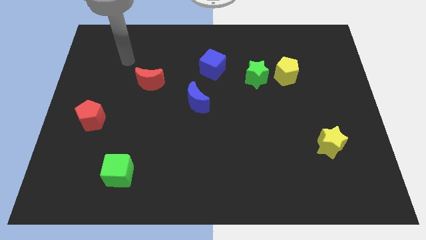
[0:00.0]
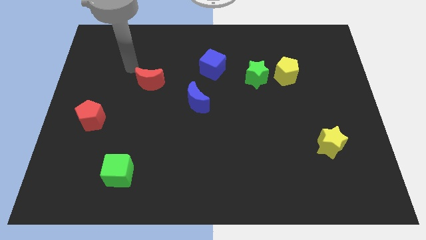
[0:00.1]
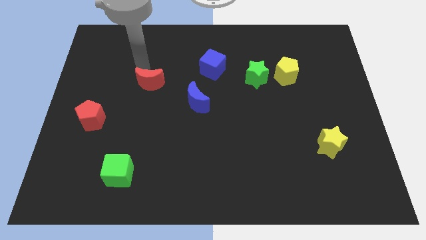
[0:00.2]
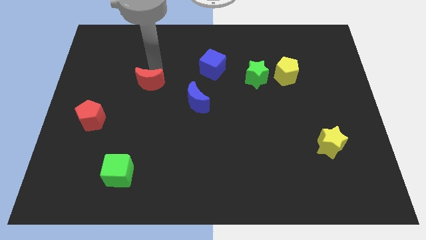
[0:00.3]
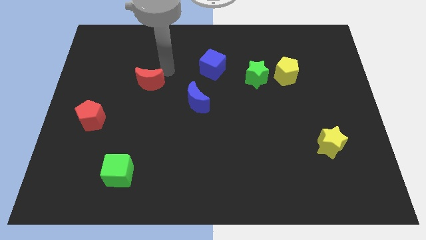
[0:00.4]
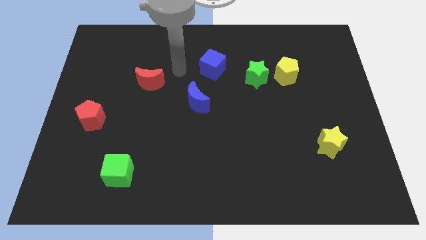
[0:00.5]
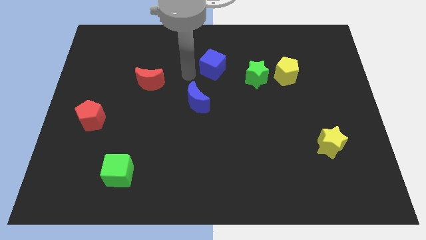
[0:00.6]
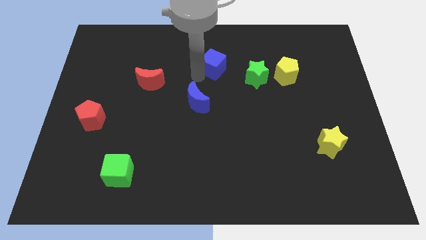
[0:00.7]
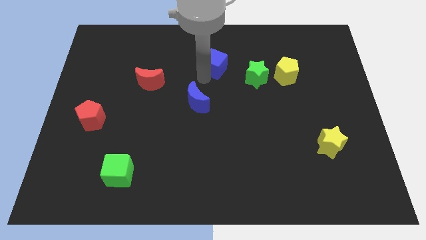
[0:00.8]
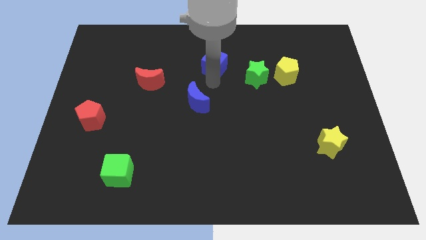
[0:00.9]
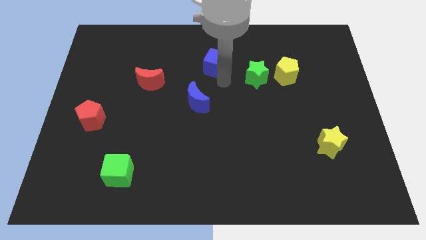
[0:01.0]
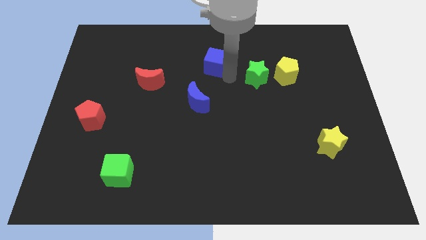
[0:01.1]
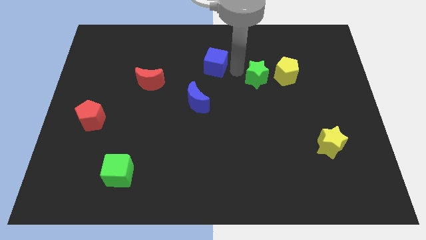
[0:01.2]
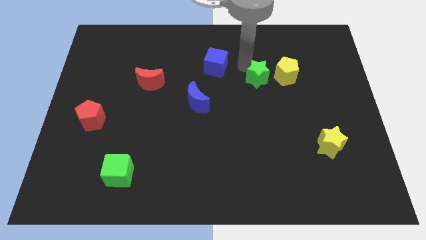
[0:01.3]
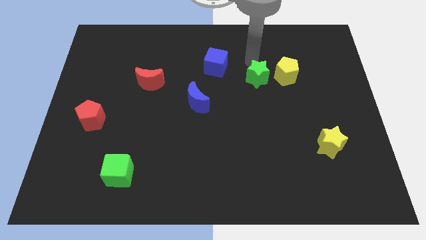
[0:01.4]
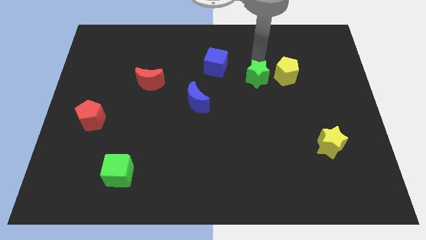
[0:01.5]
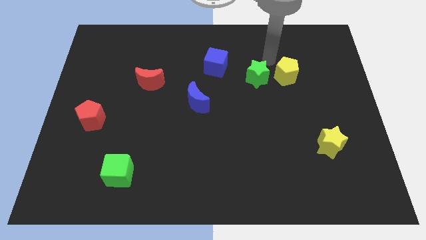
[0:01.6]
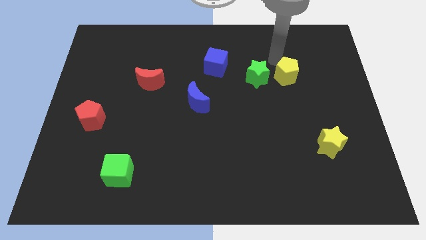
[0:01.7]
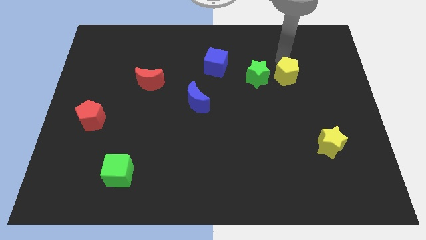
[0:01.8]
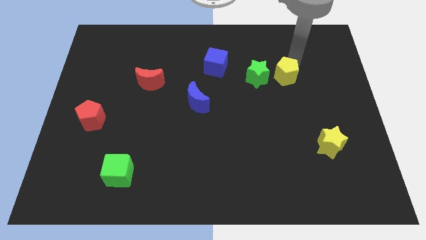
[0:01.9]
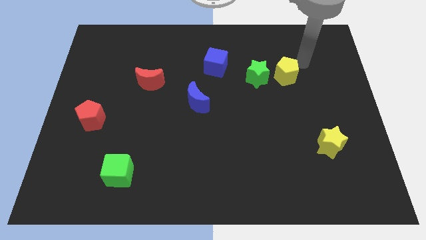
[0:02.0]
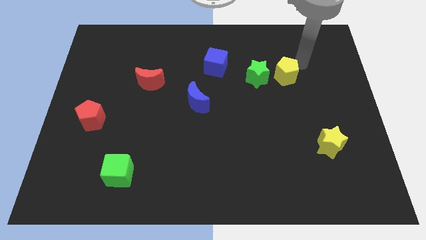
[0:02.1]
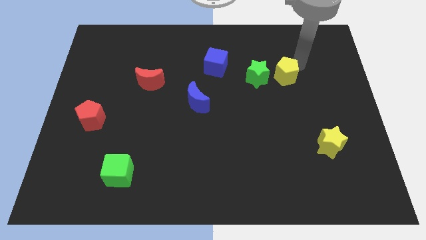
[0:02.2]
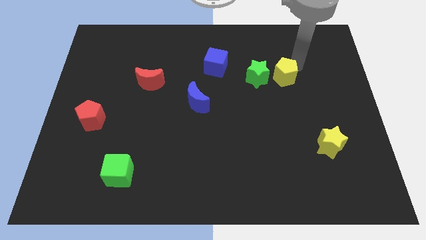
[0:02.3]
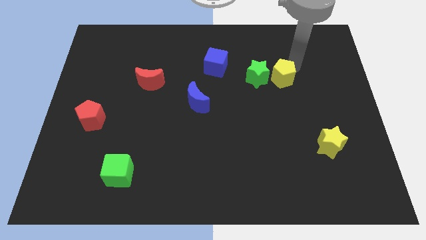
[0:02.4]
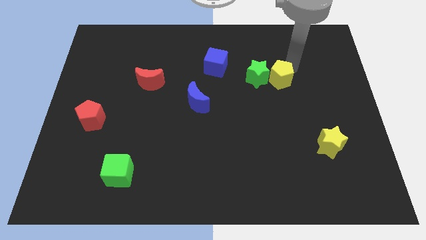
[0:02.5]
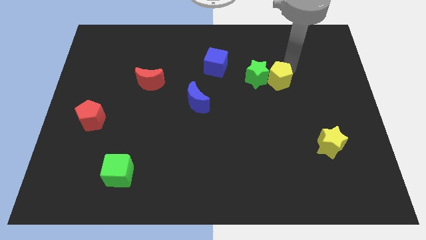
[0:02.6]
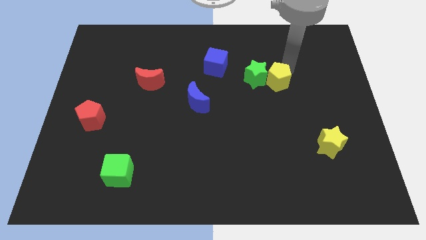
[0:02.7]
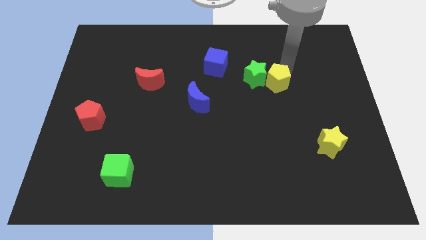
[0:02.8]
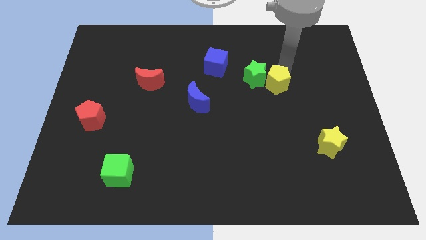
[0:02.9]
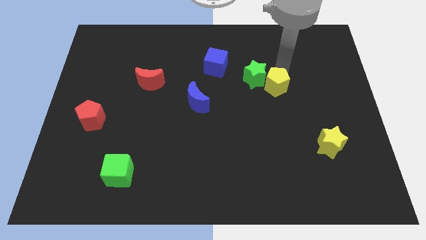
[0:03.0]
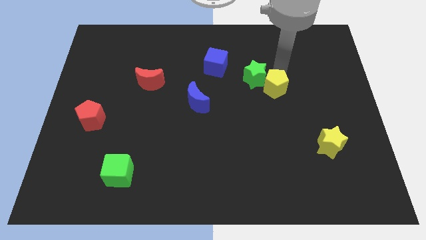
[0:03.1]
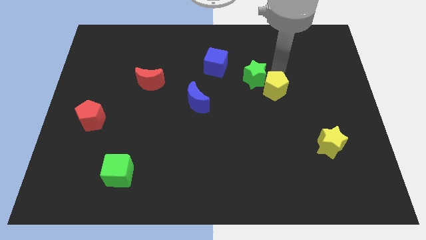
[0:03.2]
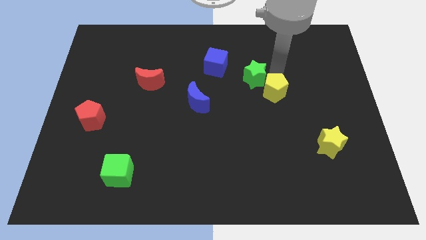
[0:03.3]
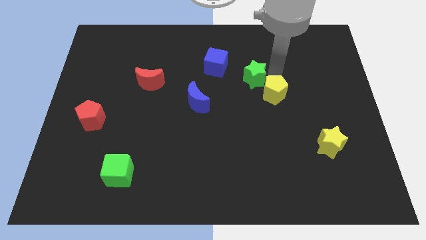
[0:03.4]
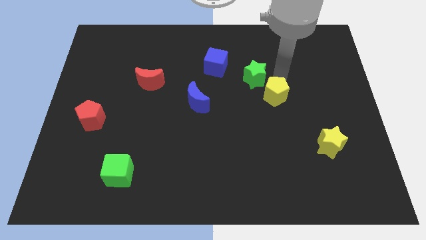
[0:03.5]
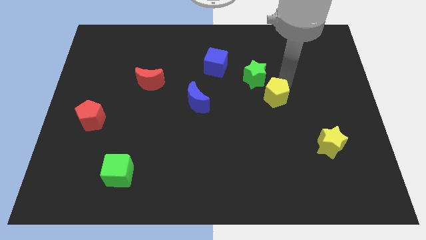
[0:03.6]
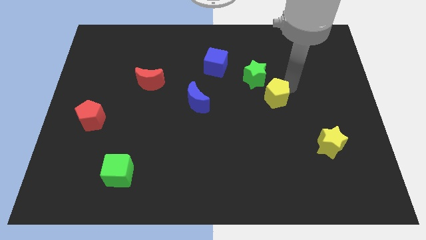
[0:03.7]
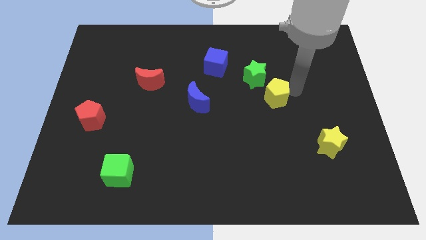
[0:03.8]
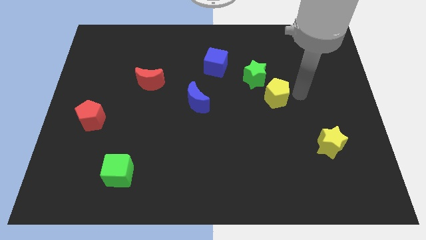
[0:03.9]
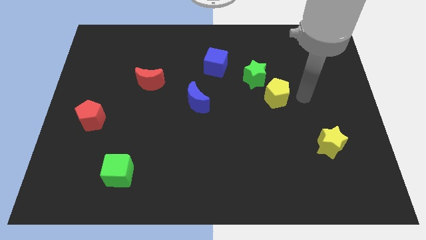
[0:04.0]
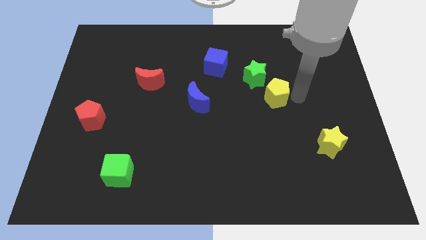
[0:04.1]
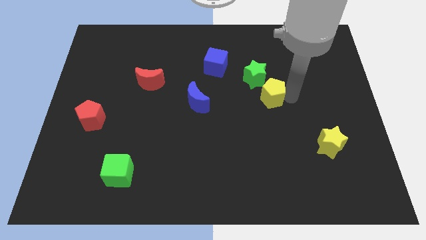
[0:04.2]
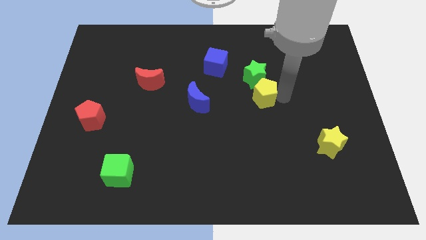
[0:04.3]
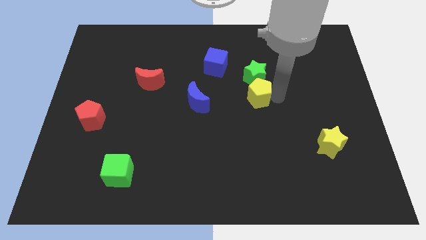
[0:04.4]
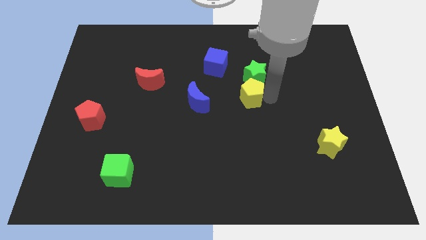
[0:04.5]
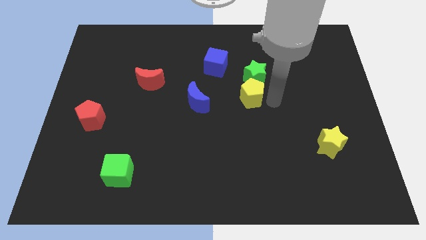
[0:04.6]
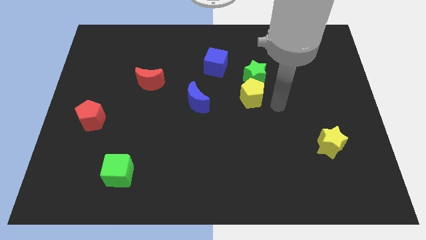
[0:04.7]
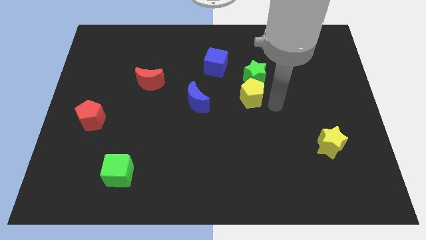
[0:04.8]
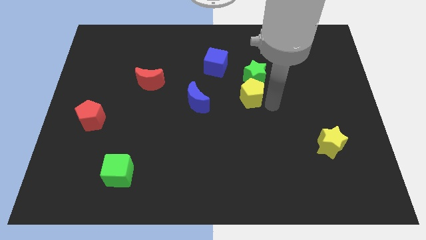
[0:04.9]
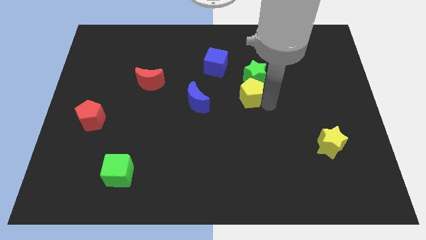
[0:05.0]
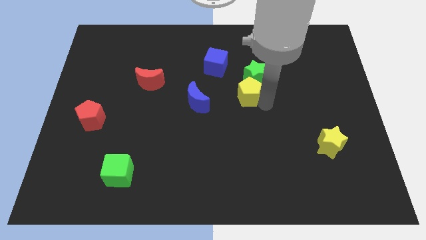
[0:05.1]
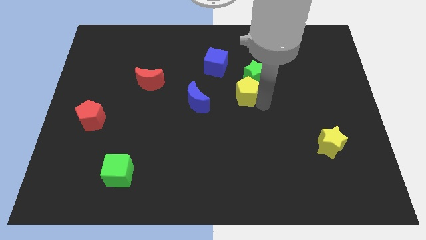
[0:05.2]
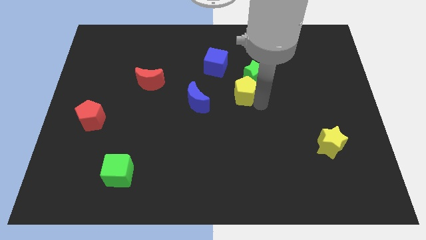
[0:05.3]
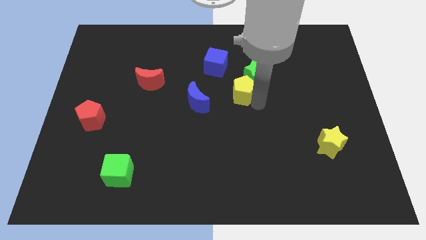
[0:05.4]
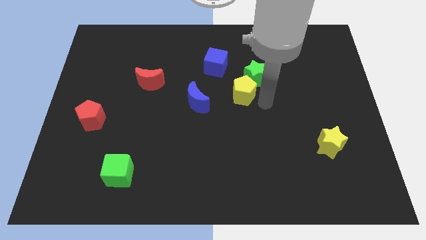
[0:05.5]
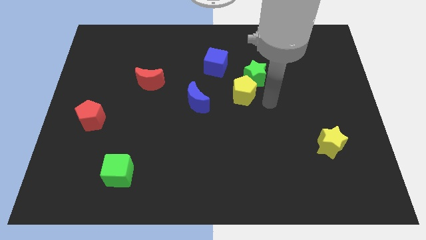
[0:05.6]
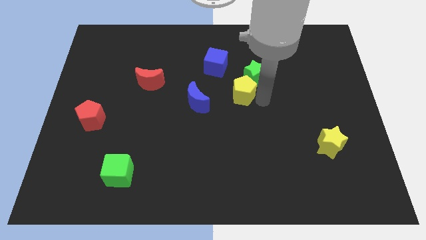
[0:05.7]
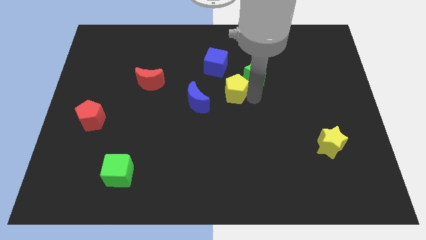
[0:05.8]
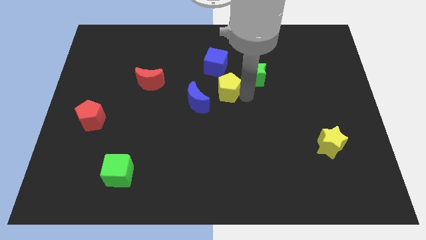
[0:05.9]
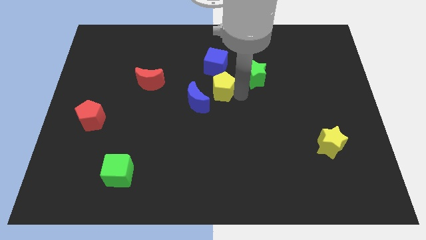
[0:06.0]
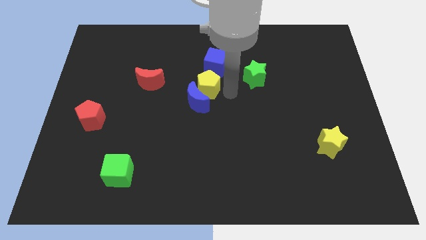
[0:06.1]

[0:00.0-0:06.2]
slide the yellow pentagon to the top side of the blue moon

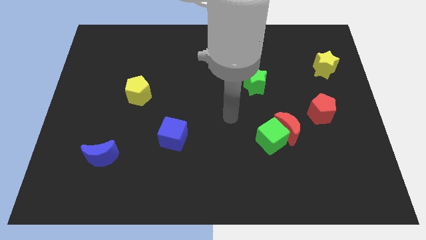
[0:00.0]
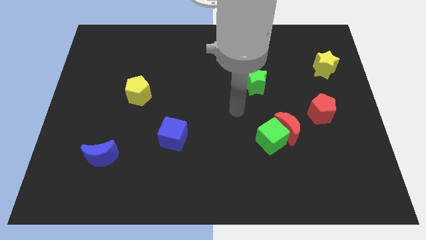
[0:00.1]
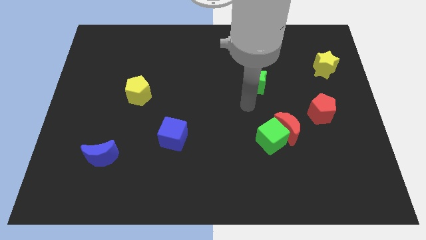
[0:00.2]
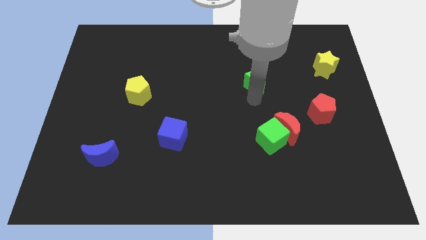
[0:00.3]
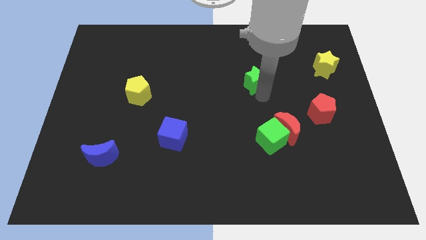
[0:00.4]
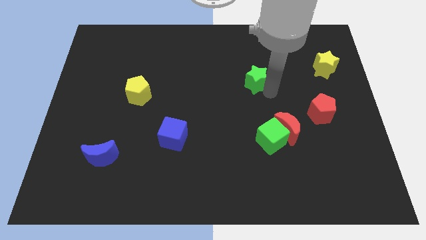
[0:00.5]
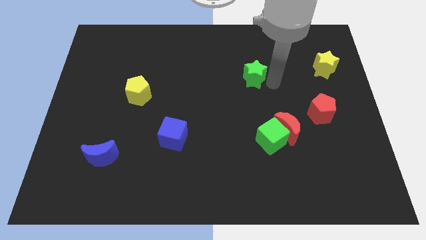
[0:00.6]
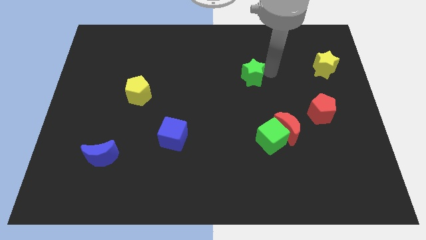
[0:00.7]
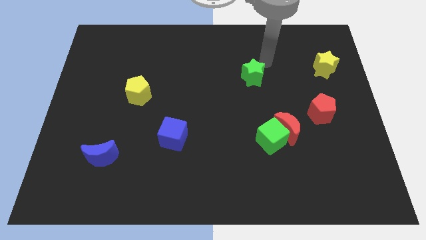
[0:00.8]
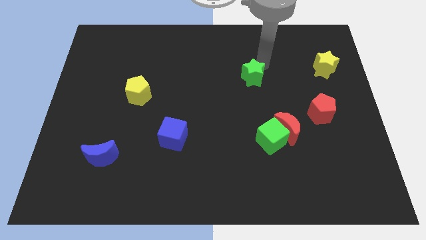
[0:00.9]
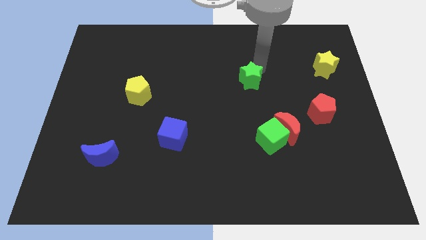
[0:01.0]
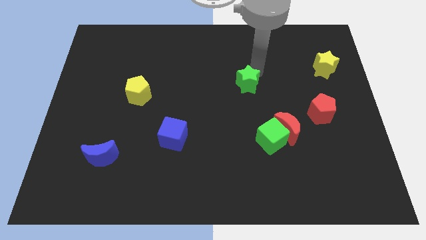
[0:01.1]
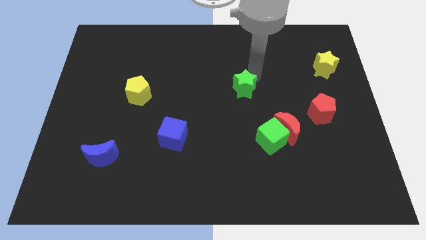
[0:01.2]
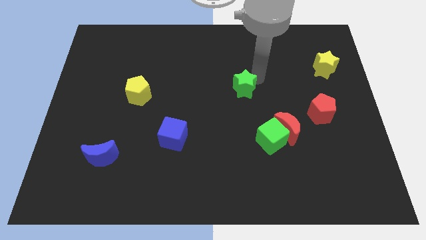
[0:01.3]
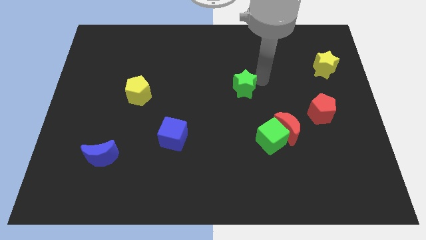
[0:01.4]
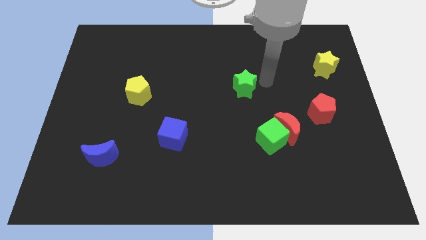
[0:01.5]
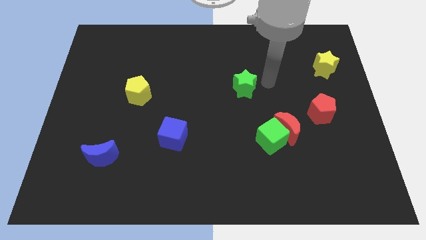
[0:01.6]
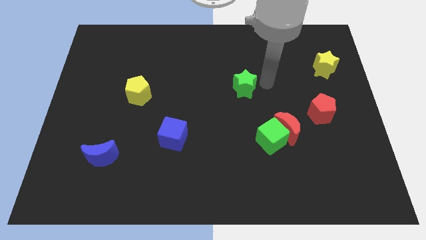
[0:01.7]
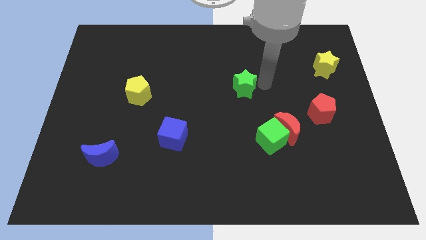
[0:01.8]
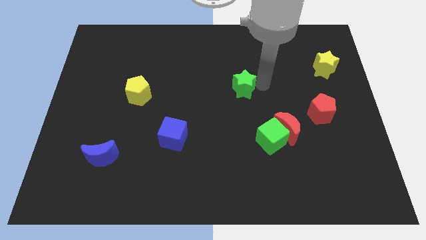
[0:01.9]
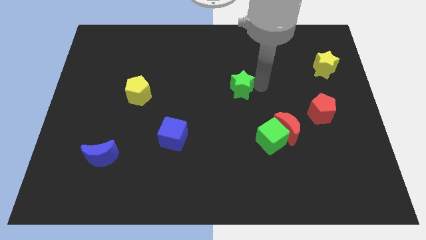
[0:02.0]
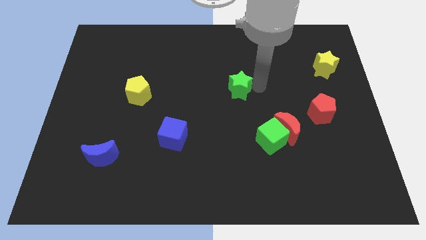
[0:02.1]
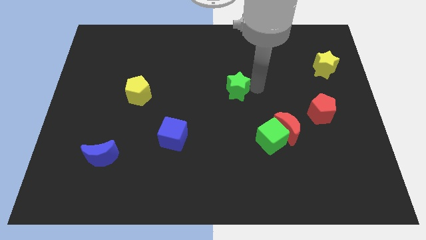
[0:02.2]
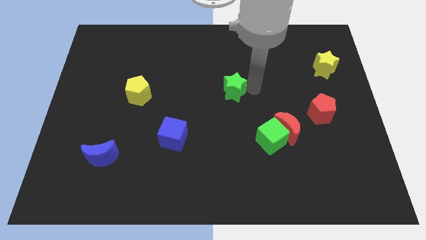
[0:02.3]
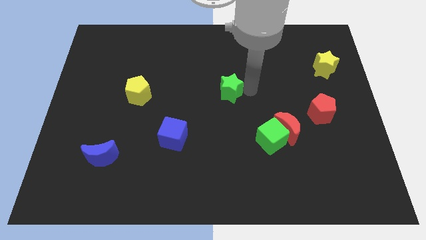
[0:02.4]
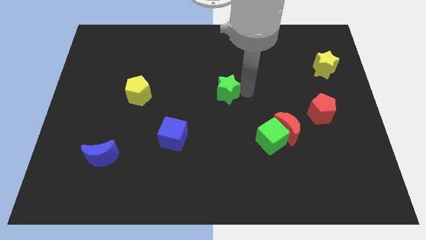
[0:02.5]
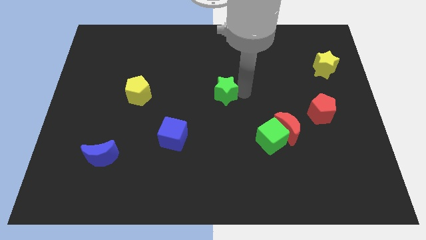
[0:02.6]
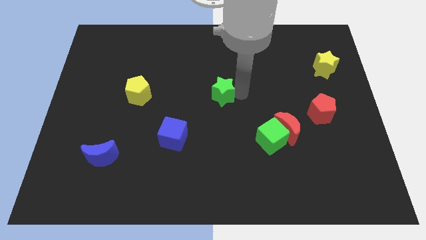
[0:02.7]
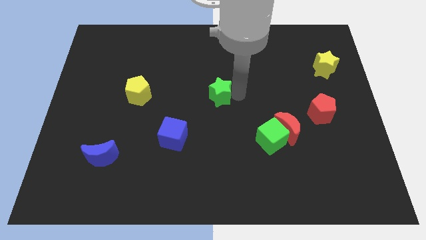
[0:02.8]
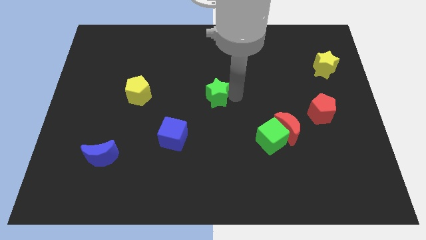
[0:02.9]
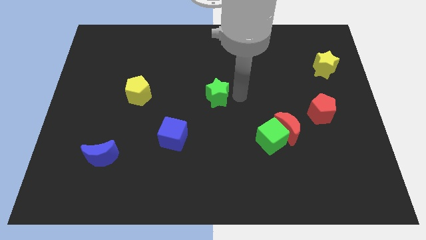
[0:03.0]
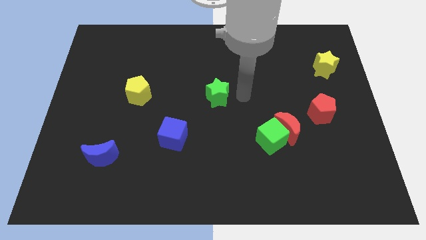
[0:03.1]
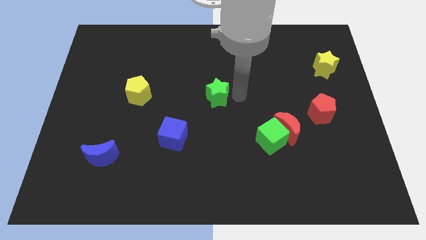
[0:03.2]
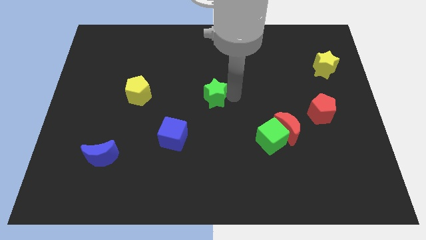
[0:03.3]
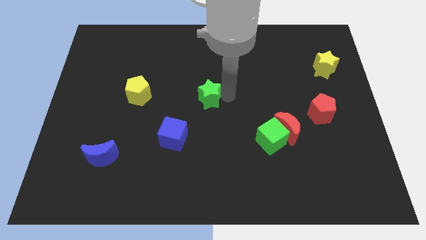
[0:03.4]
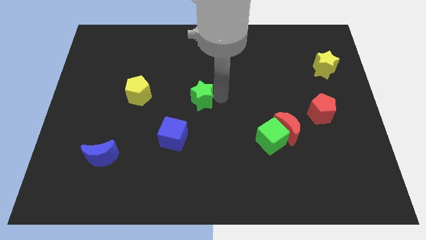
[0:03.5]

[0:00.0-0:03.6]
move the green star to the right side of the yellow pentagon
